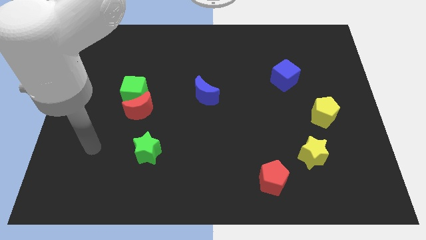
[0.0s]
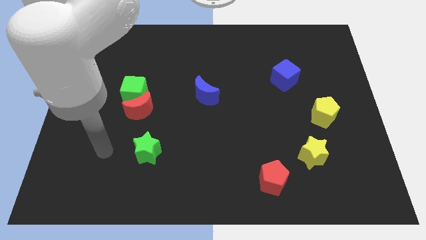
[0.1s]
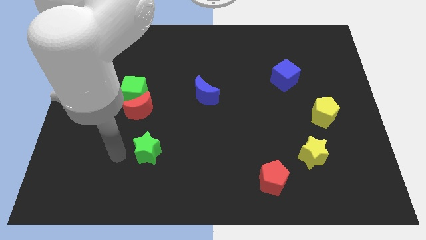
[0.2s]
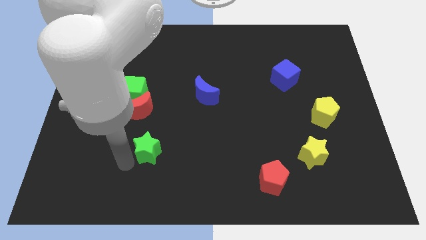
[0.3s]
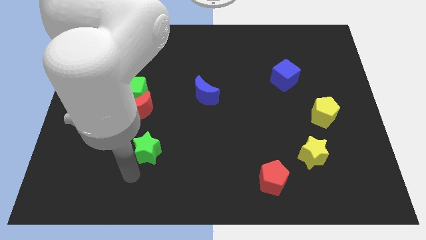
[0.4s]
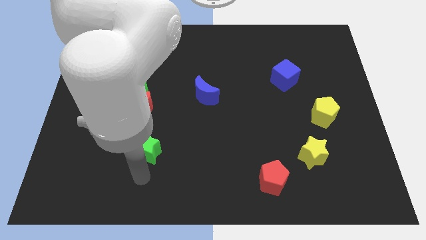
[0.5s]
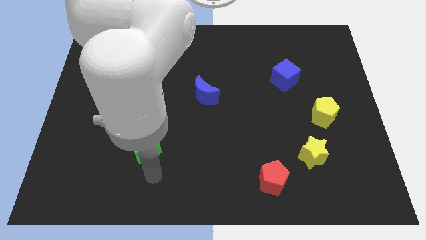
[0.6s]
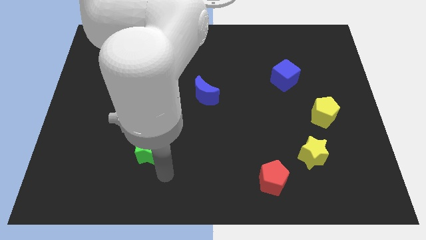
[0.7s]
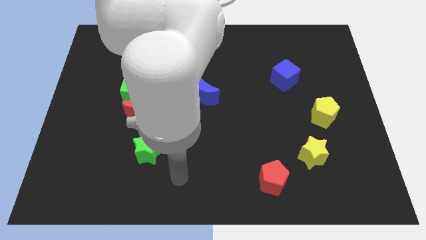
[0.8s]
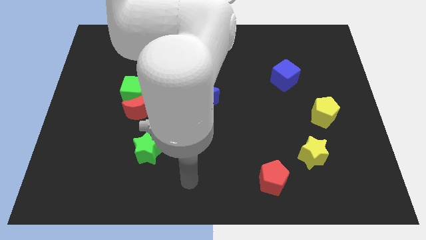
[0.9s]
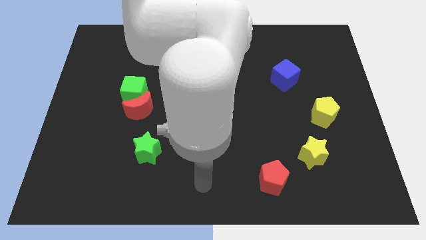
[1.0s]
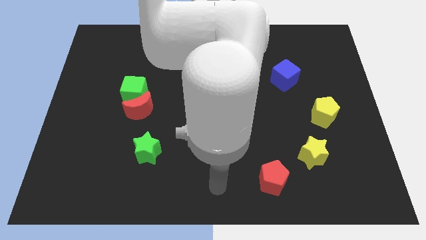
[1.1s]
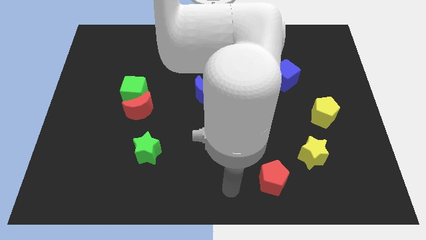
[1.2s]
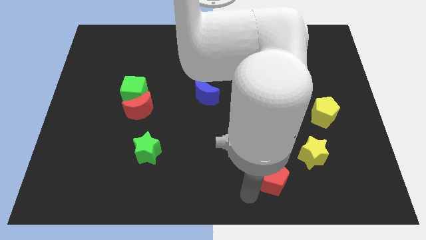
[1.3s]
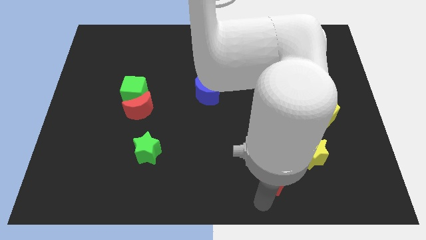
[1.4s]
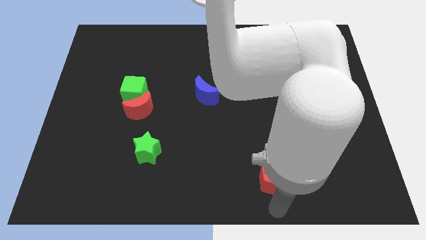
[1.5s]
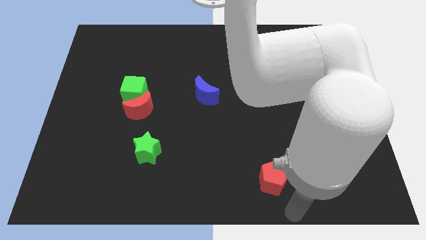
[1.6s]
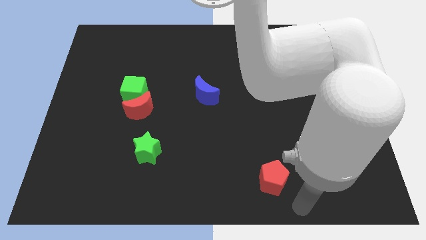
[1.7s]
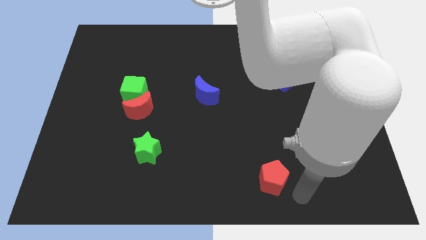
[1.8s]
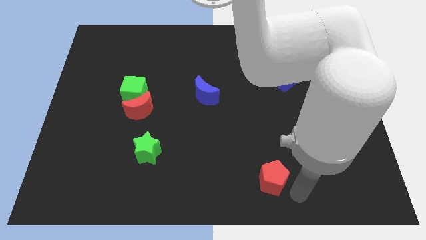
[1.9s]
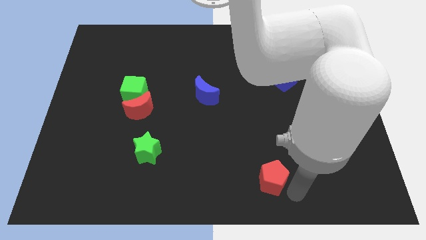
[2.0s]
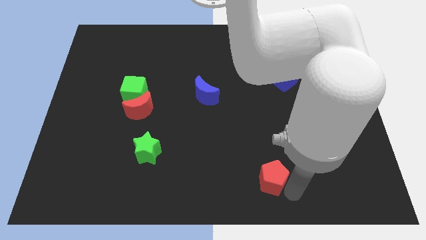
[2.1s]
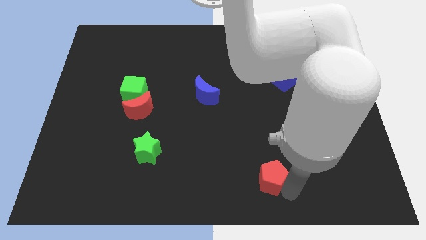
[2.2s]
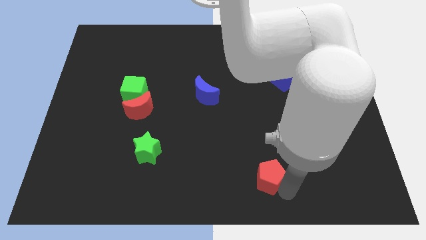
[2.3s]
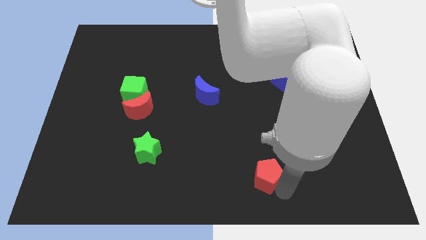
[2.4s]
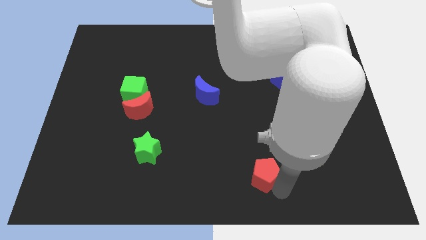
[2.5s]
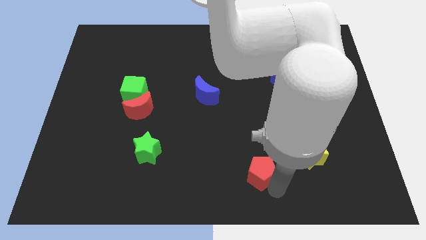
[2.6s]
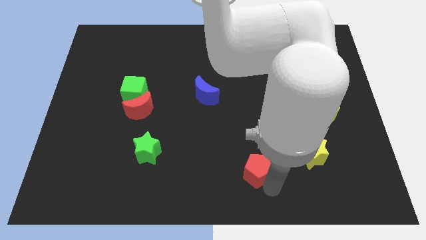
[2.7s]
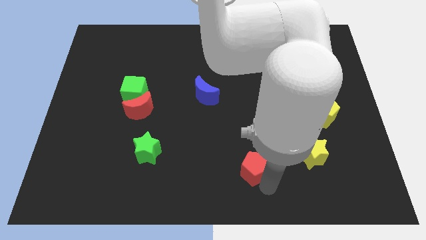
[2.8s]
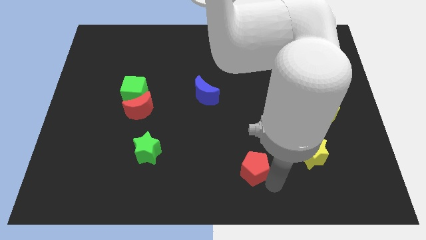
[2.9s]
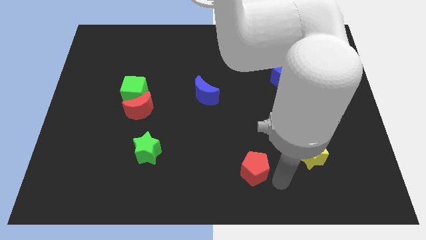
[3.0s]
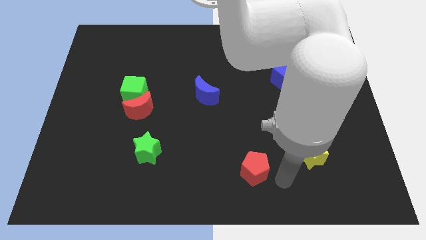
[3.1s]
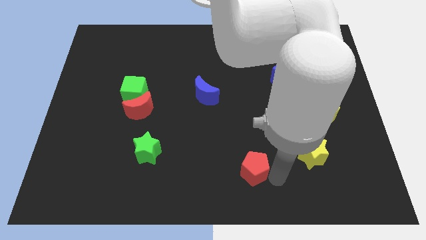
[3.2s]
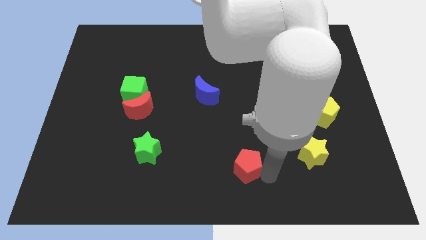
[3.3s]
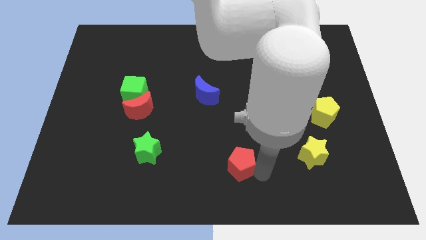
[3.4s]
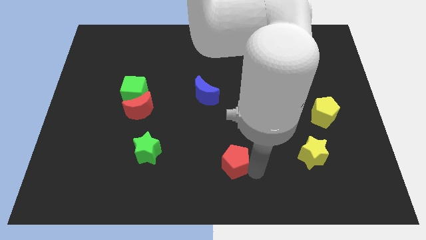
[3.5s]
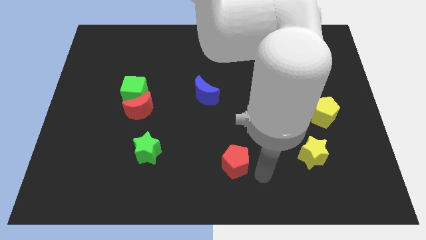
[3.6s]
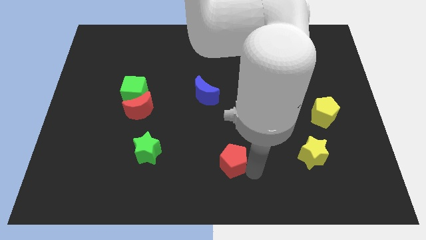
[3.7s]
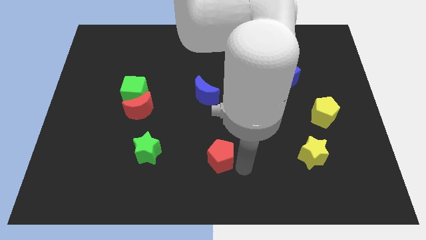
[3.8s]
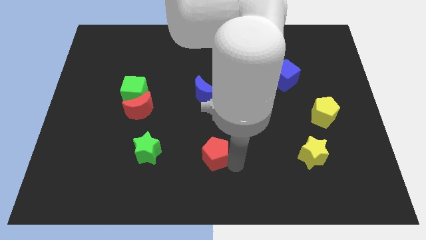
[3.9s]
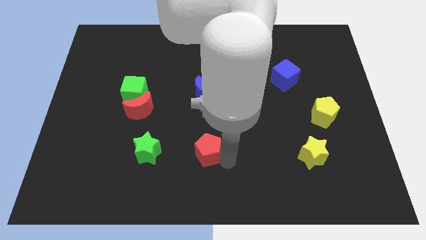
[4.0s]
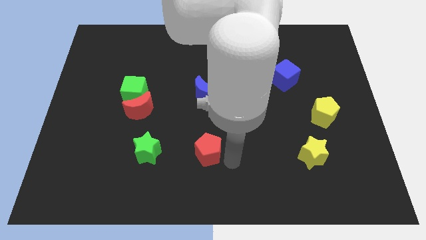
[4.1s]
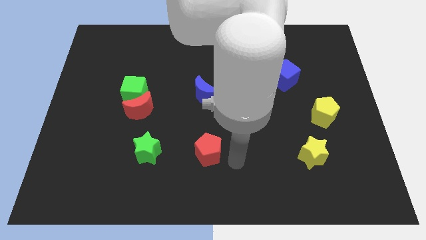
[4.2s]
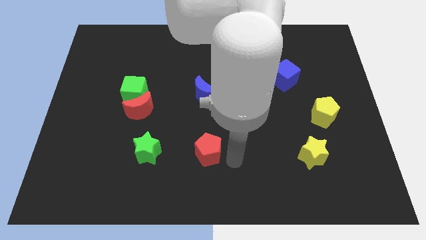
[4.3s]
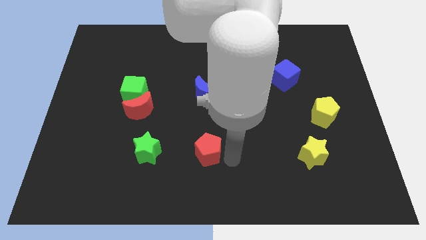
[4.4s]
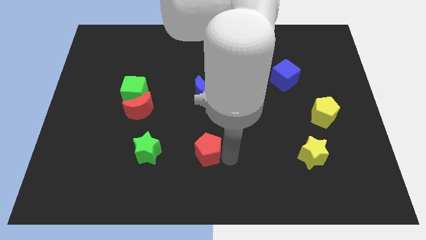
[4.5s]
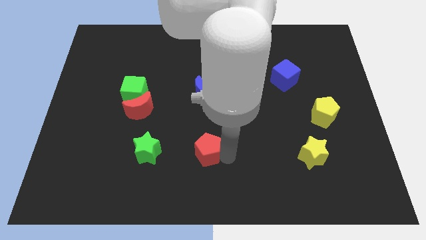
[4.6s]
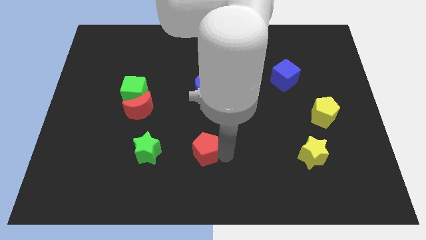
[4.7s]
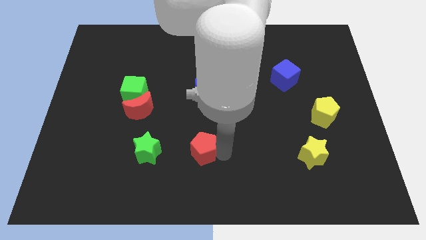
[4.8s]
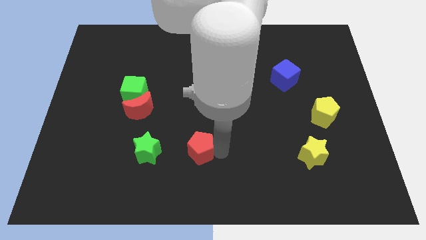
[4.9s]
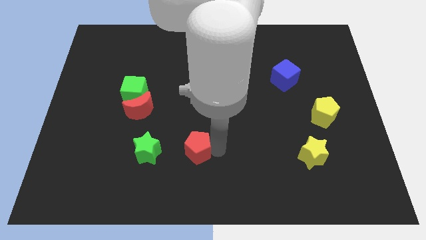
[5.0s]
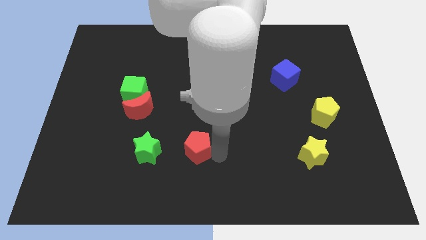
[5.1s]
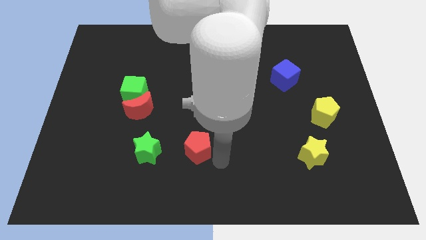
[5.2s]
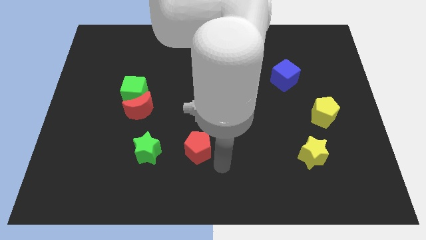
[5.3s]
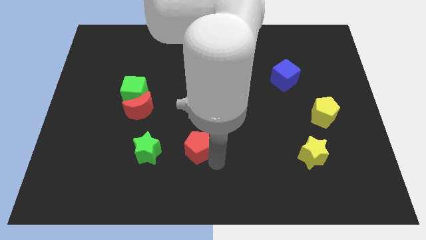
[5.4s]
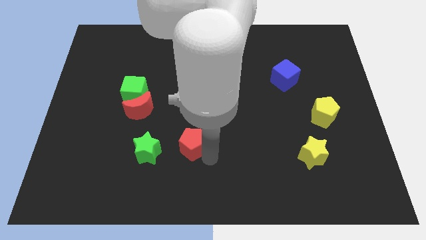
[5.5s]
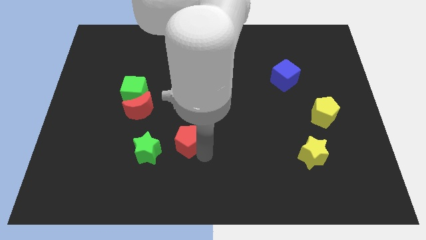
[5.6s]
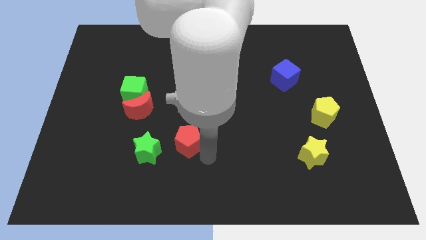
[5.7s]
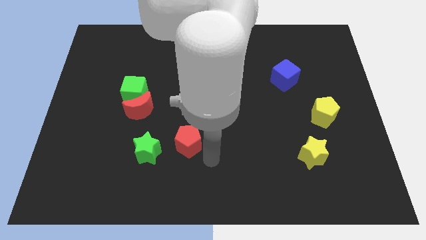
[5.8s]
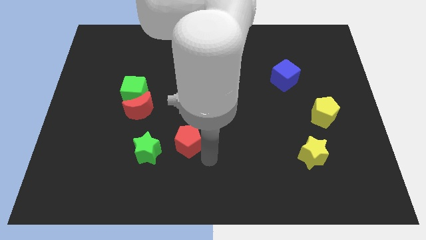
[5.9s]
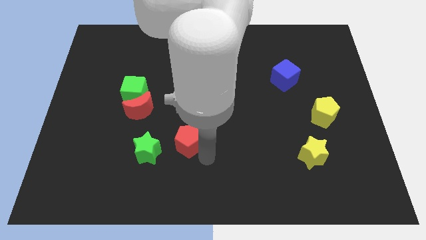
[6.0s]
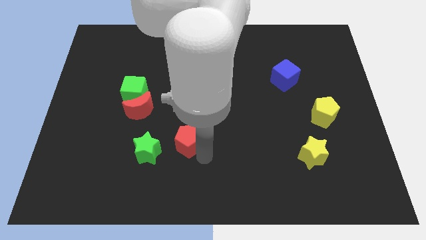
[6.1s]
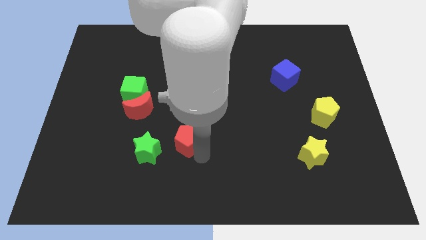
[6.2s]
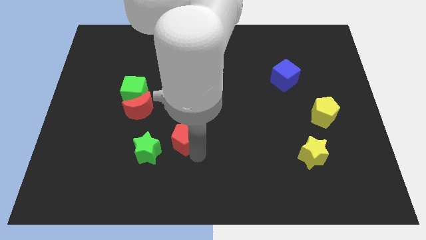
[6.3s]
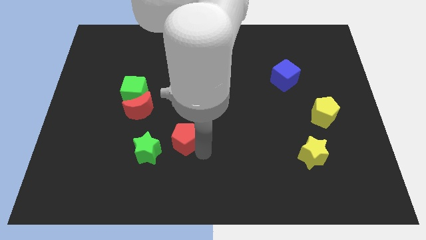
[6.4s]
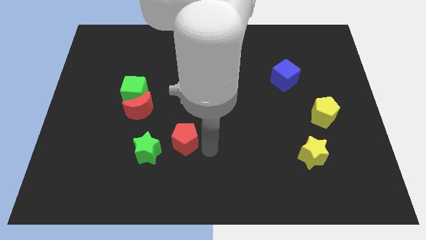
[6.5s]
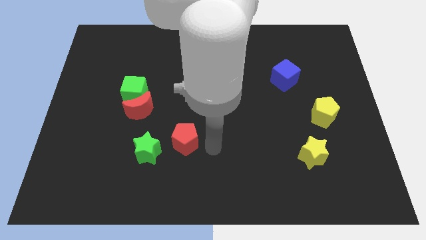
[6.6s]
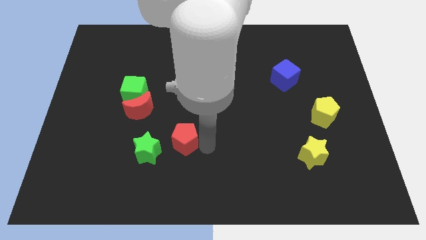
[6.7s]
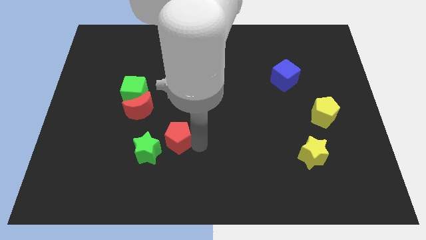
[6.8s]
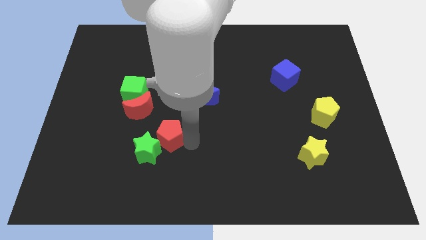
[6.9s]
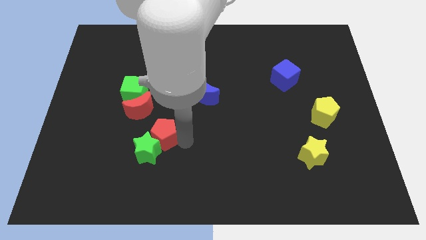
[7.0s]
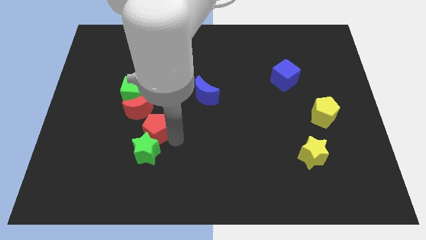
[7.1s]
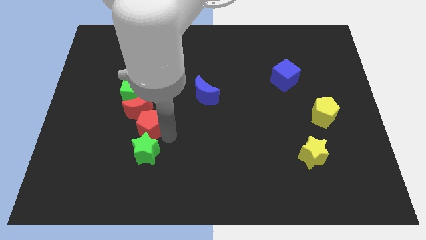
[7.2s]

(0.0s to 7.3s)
put the red pentagon to the bottom of the green cube

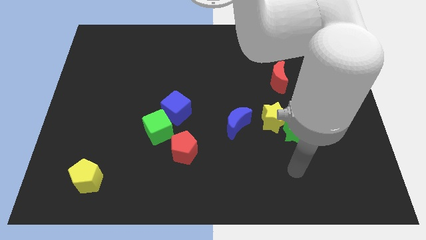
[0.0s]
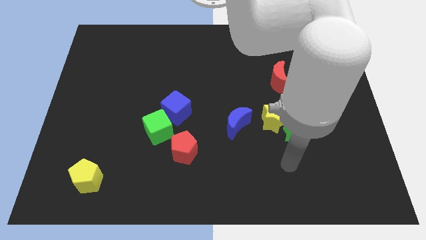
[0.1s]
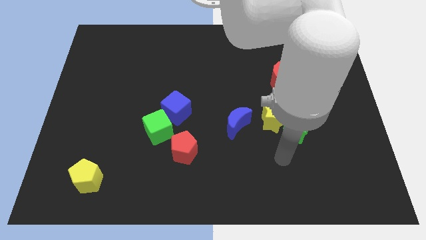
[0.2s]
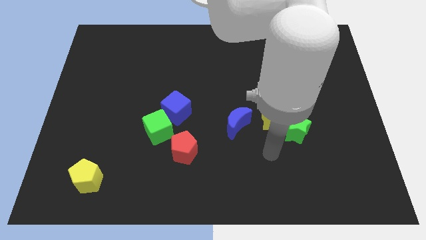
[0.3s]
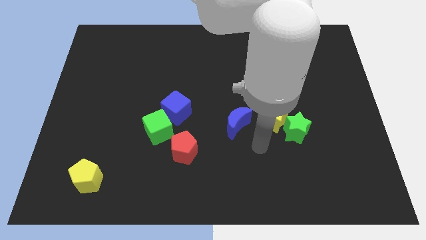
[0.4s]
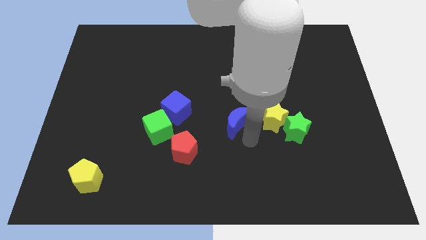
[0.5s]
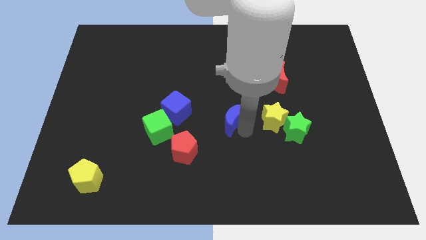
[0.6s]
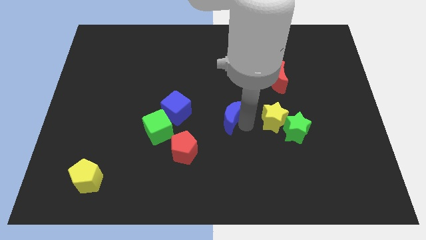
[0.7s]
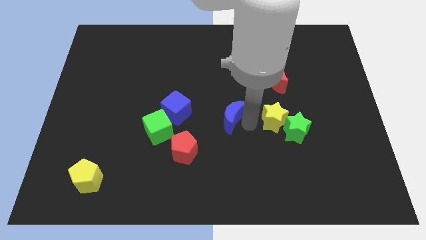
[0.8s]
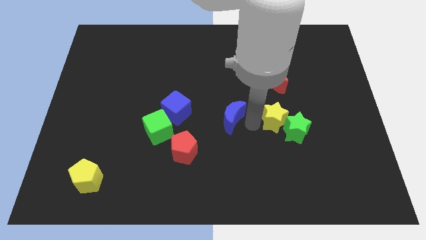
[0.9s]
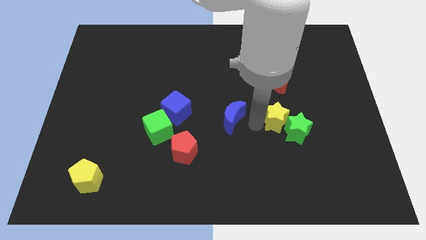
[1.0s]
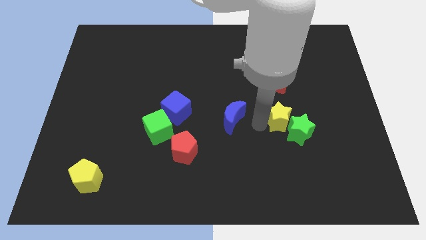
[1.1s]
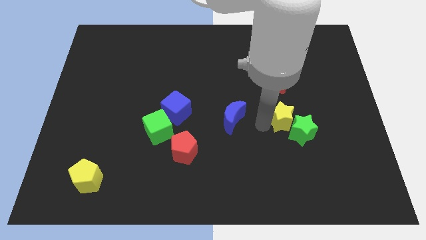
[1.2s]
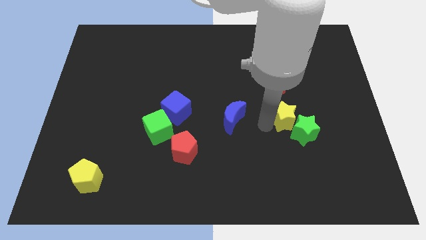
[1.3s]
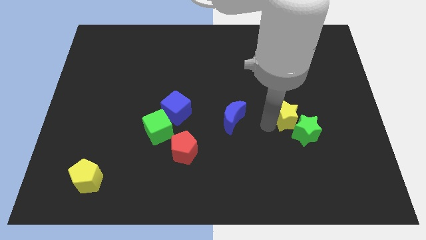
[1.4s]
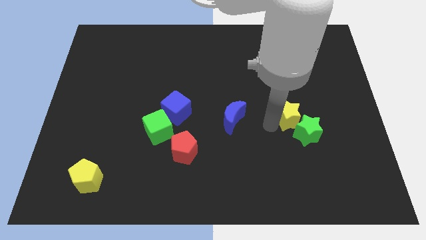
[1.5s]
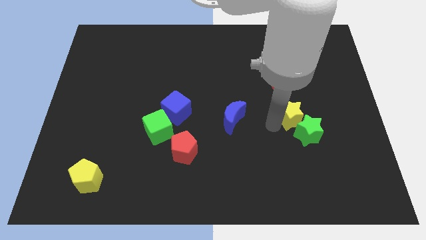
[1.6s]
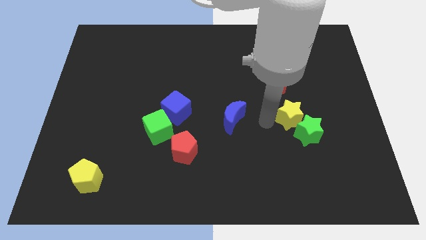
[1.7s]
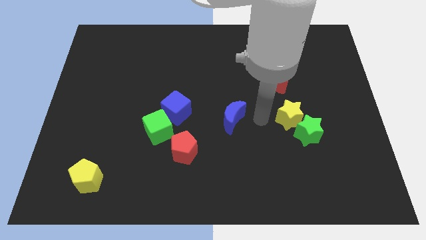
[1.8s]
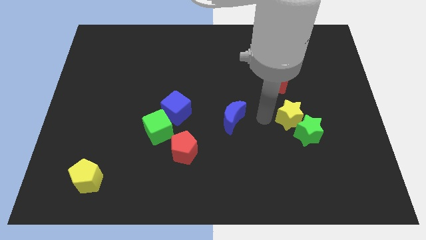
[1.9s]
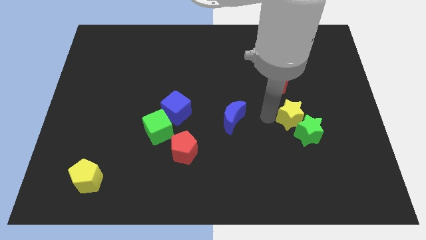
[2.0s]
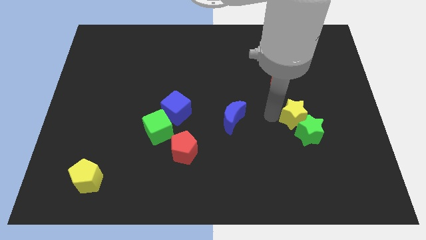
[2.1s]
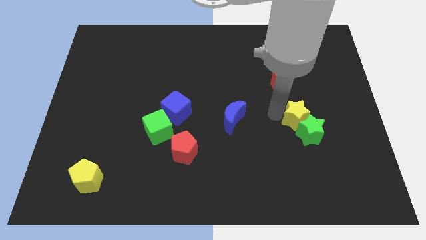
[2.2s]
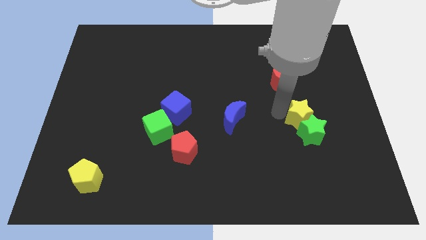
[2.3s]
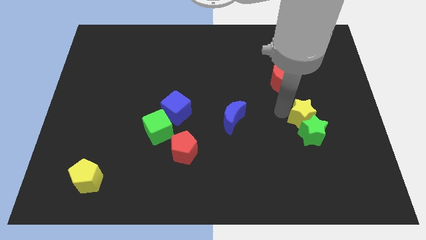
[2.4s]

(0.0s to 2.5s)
move the yellow star to the top right side of the green star
